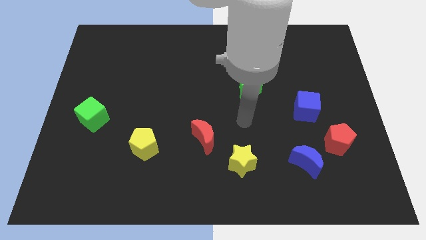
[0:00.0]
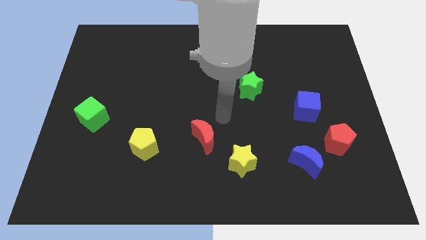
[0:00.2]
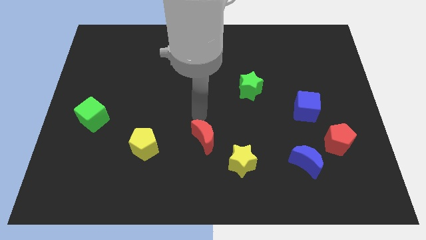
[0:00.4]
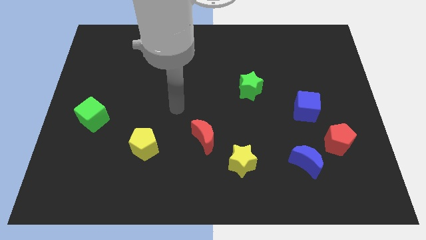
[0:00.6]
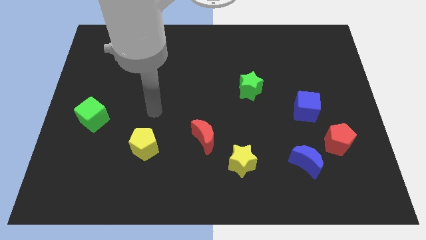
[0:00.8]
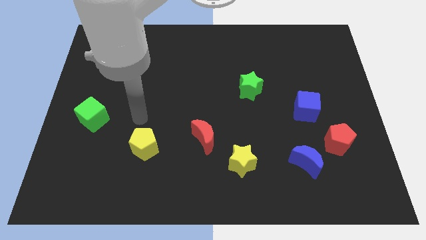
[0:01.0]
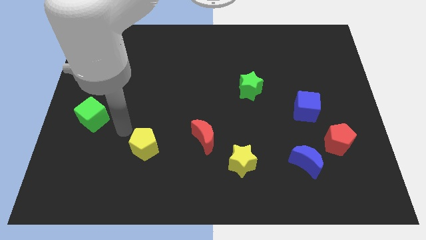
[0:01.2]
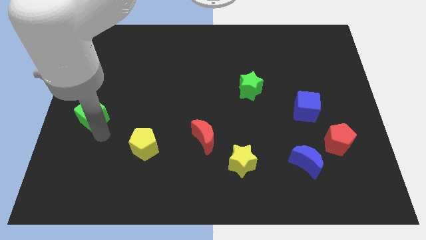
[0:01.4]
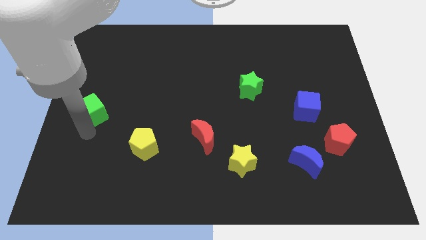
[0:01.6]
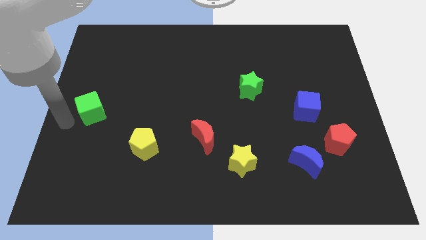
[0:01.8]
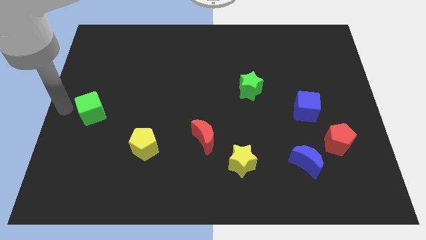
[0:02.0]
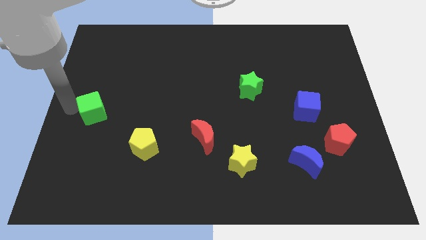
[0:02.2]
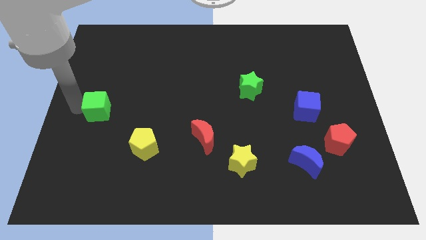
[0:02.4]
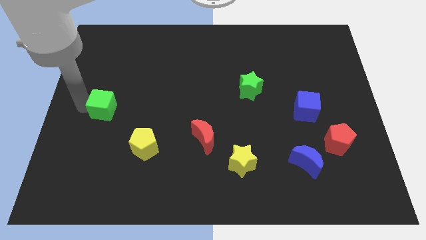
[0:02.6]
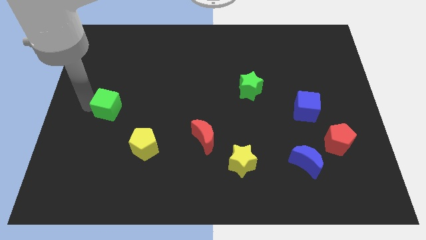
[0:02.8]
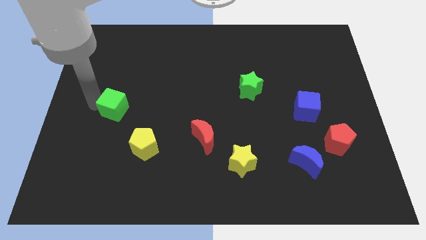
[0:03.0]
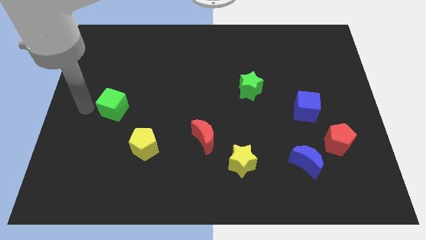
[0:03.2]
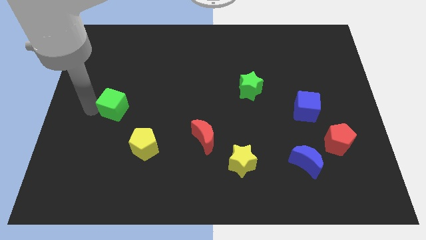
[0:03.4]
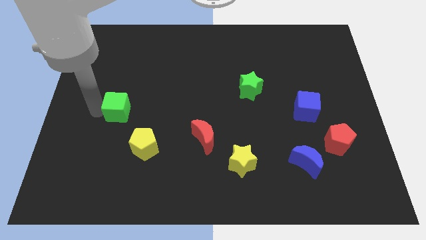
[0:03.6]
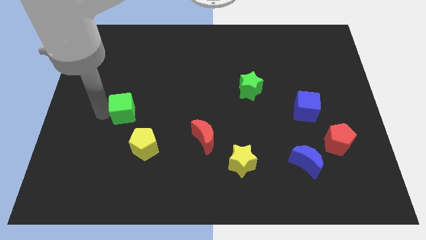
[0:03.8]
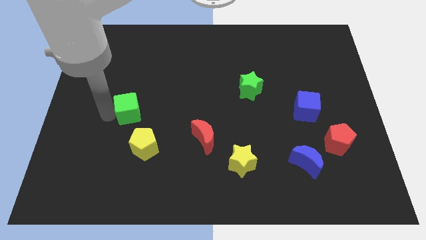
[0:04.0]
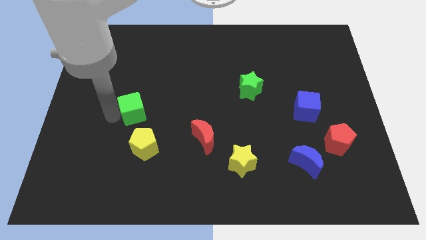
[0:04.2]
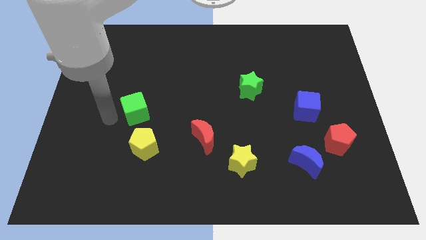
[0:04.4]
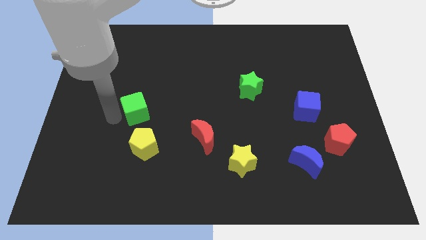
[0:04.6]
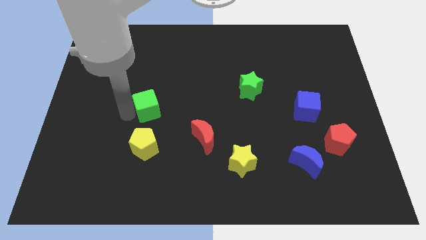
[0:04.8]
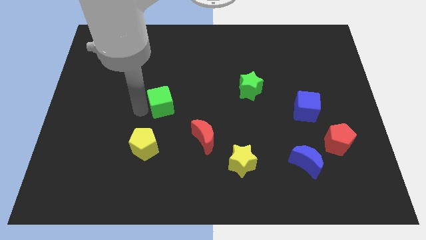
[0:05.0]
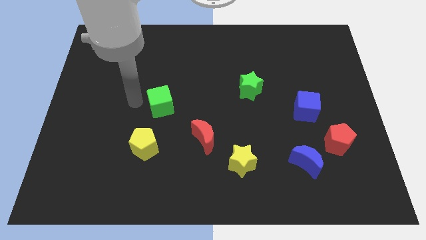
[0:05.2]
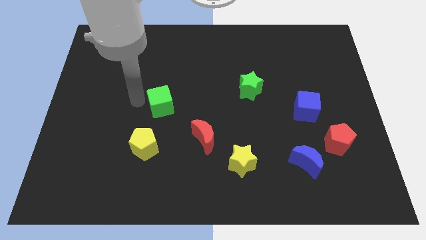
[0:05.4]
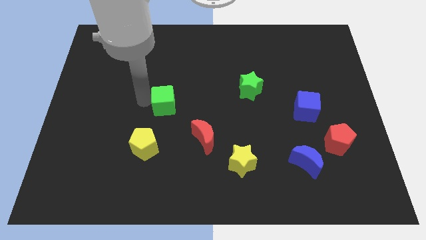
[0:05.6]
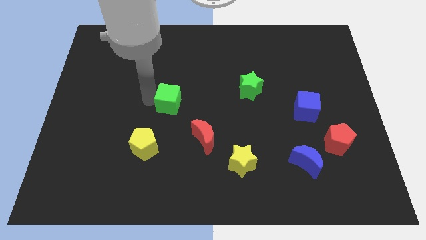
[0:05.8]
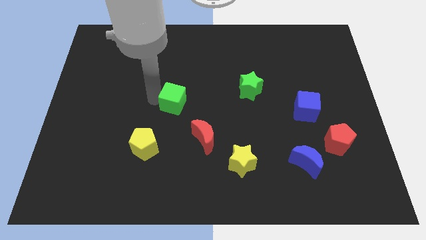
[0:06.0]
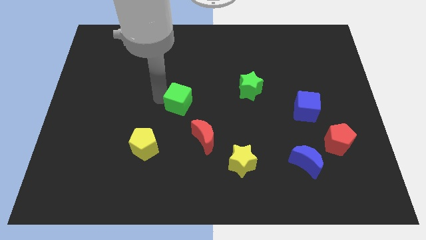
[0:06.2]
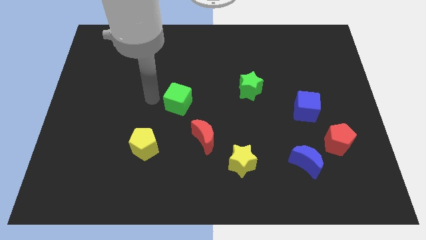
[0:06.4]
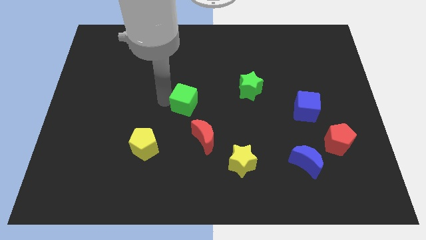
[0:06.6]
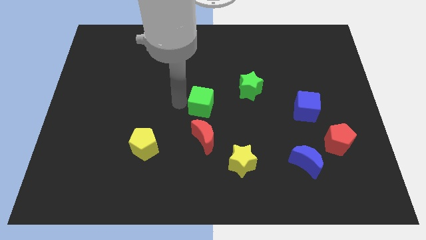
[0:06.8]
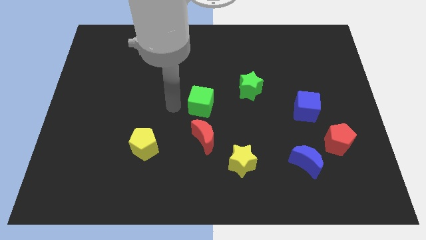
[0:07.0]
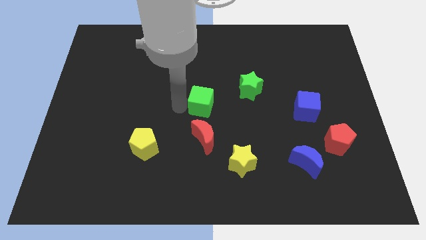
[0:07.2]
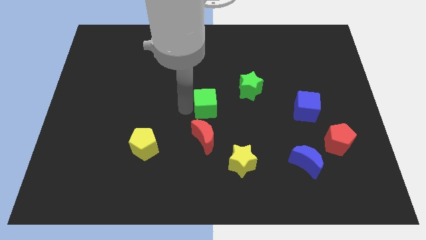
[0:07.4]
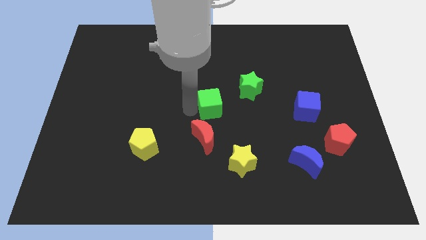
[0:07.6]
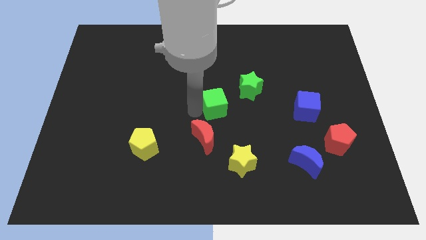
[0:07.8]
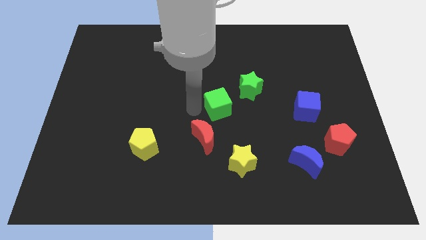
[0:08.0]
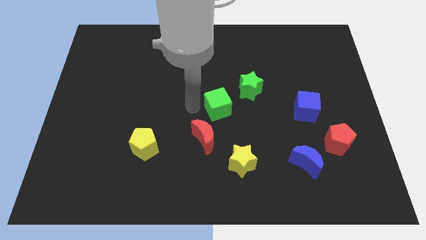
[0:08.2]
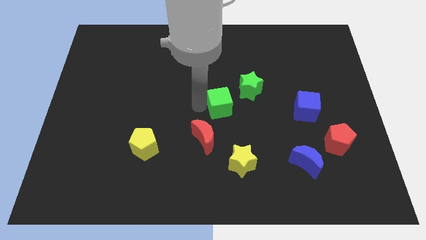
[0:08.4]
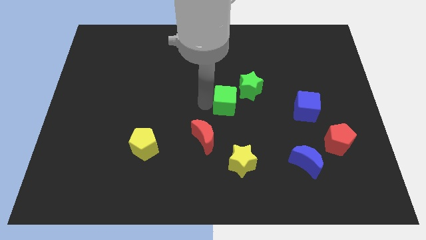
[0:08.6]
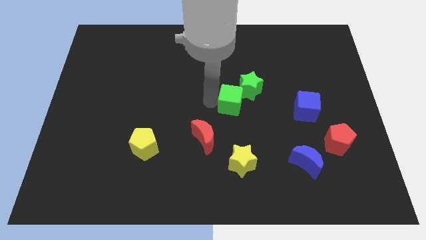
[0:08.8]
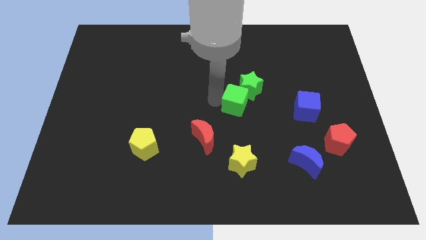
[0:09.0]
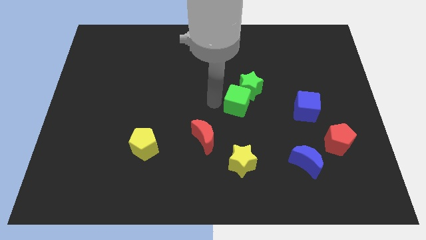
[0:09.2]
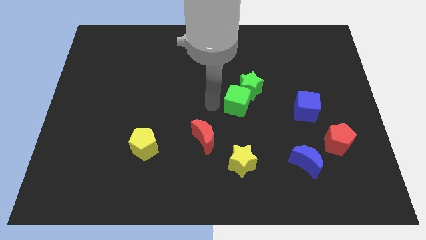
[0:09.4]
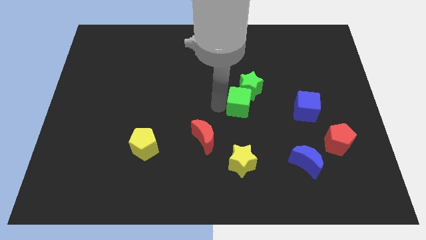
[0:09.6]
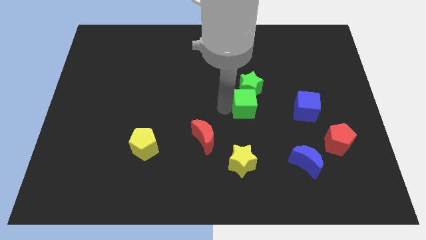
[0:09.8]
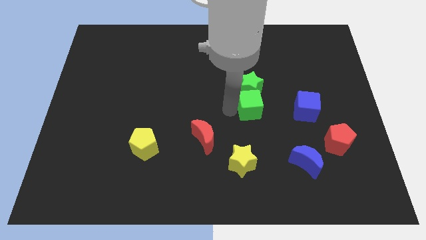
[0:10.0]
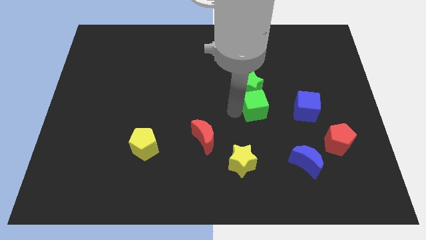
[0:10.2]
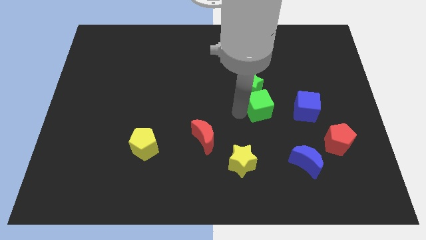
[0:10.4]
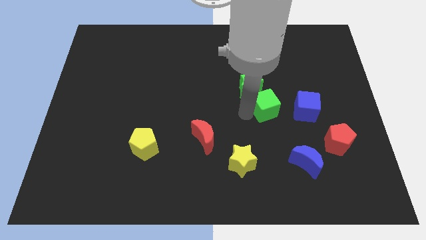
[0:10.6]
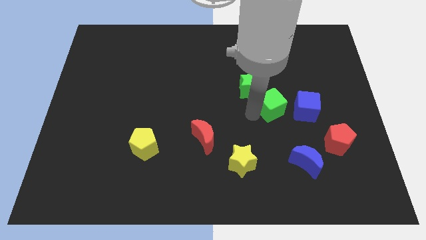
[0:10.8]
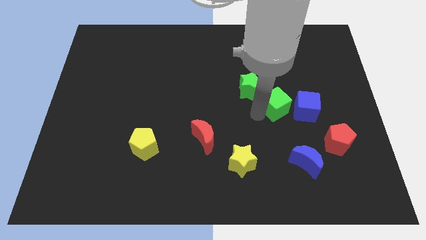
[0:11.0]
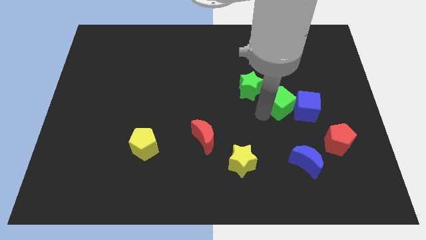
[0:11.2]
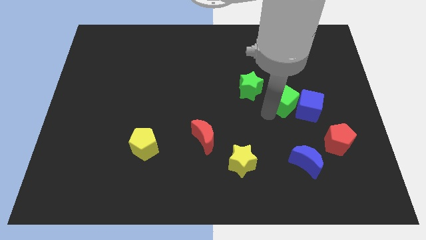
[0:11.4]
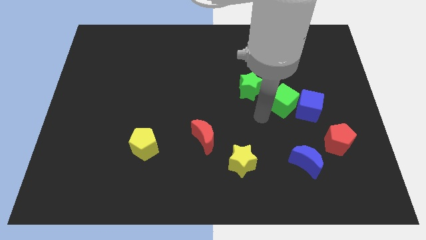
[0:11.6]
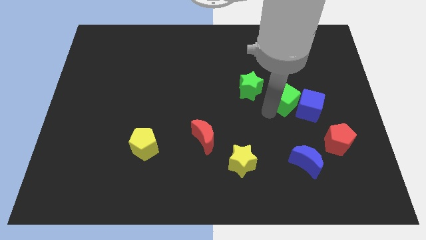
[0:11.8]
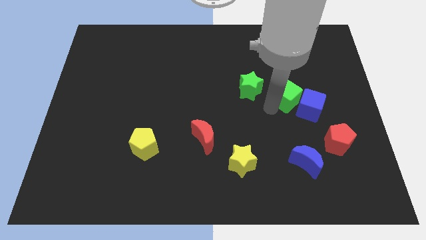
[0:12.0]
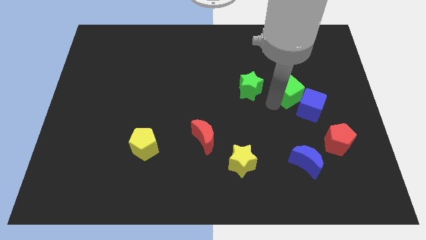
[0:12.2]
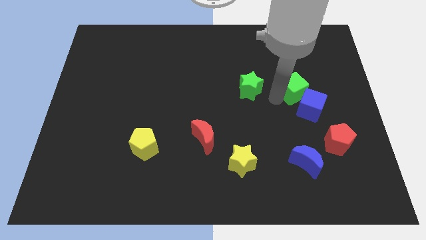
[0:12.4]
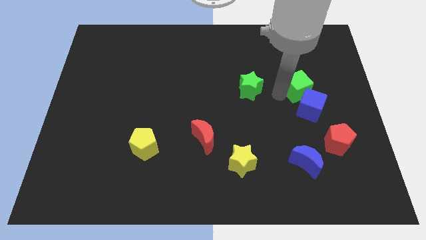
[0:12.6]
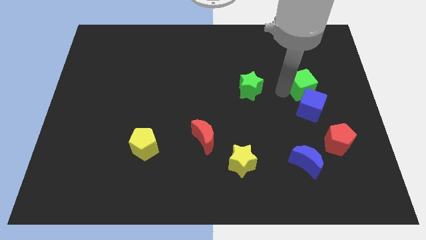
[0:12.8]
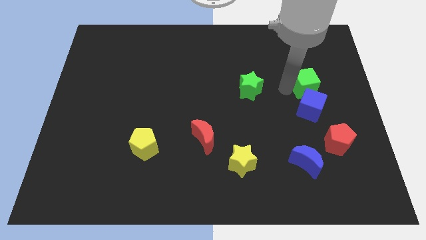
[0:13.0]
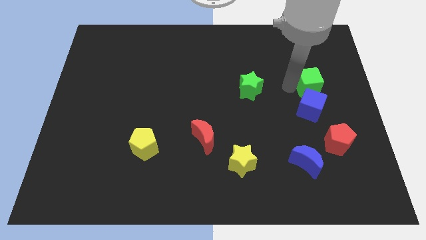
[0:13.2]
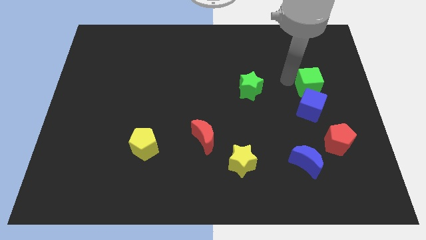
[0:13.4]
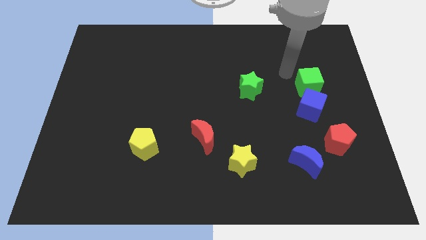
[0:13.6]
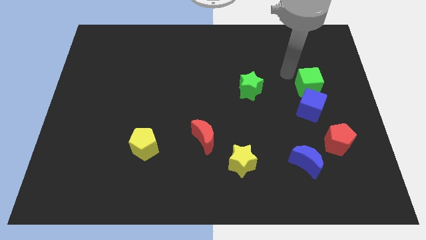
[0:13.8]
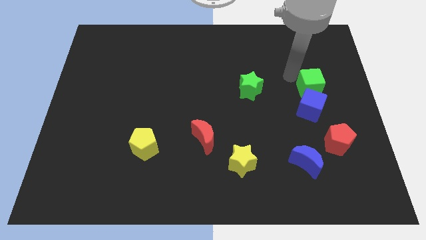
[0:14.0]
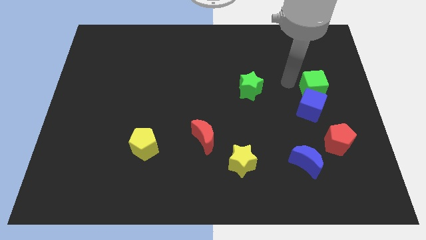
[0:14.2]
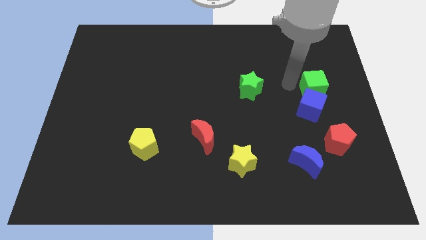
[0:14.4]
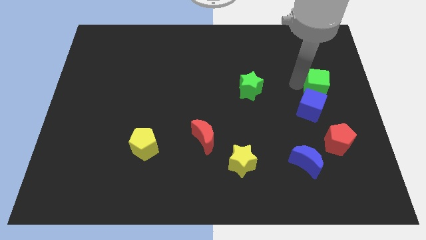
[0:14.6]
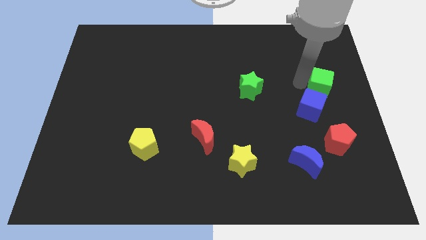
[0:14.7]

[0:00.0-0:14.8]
move the green cube to the right side of the board

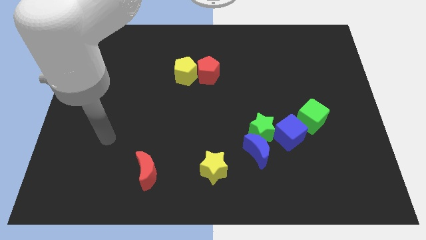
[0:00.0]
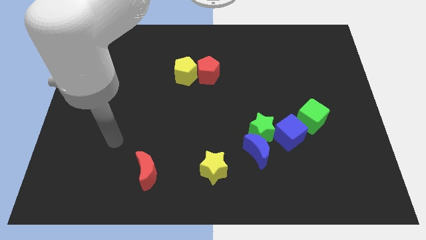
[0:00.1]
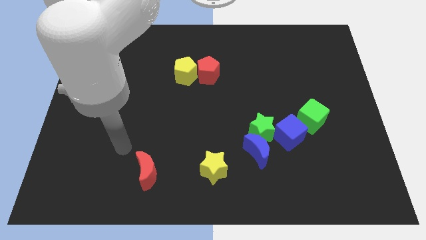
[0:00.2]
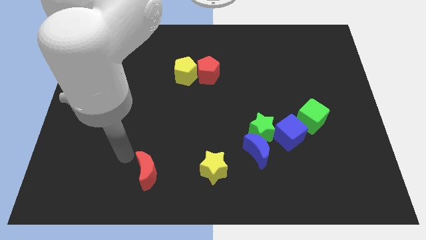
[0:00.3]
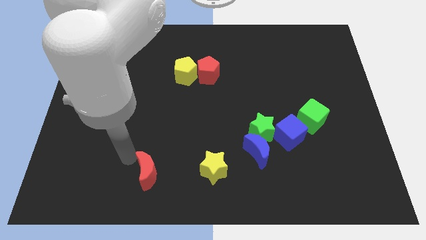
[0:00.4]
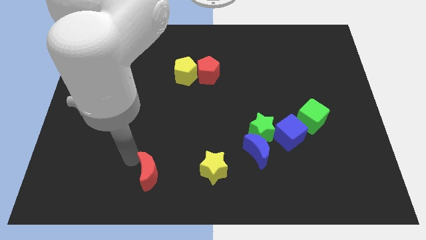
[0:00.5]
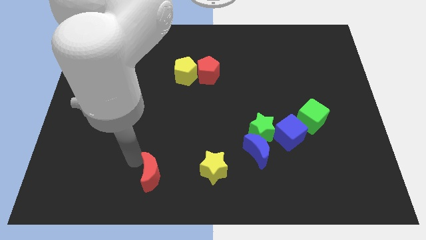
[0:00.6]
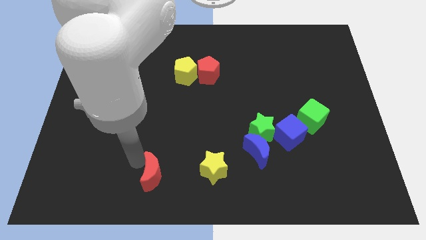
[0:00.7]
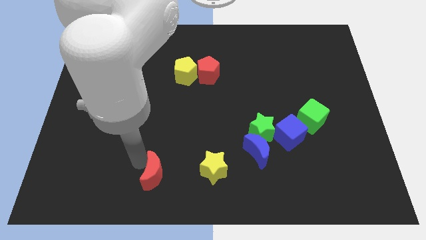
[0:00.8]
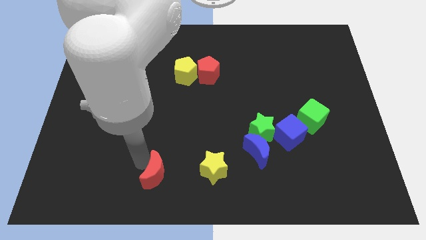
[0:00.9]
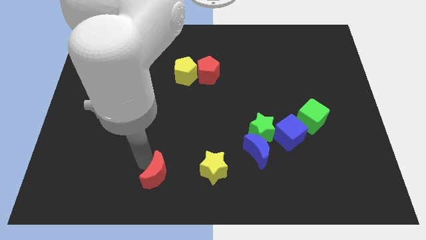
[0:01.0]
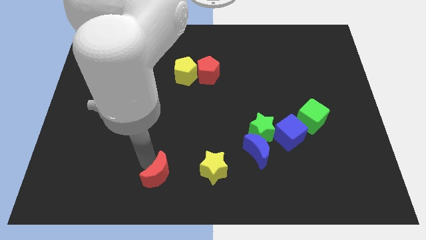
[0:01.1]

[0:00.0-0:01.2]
push the red moon to the bottom

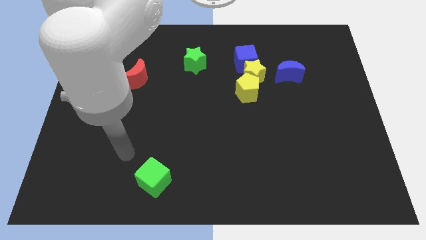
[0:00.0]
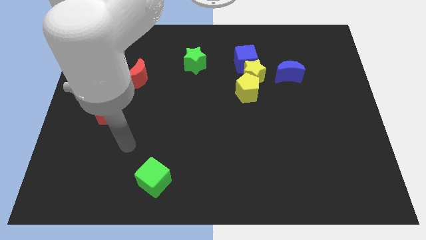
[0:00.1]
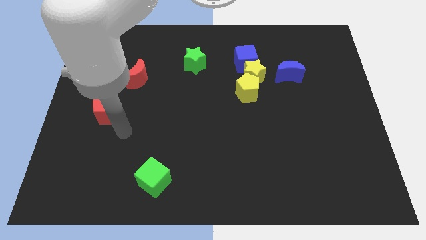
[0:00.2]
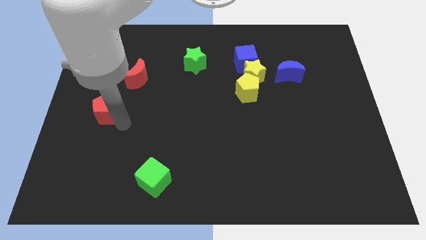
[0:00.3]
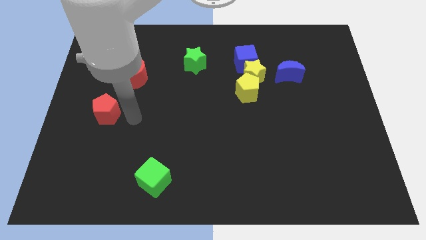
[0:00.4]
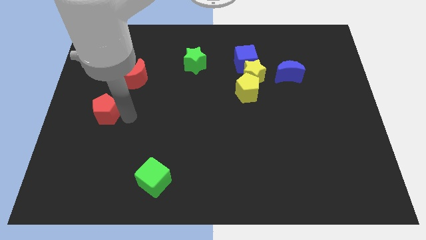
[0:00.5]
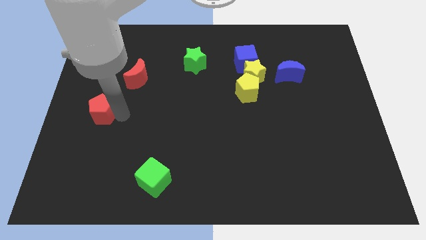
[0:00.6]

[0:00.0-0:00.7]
move the red pentagon to the left side of the board
